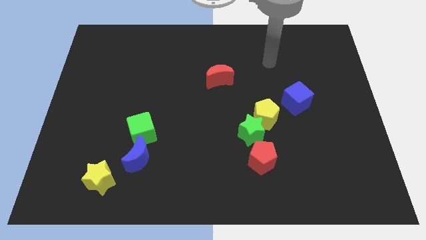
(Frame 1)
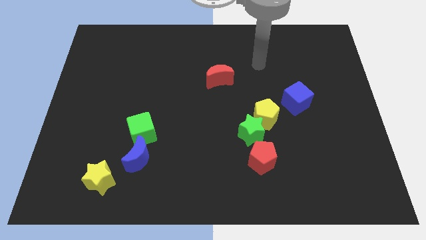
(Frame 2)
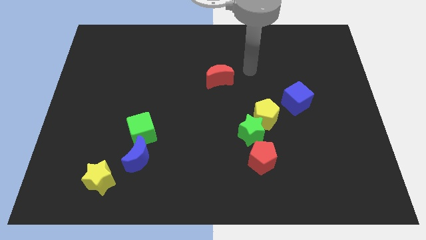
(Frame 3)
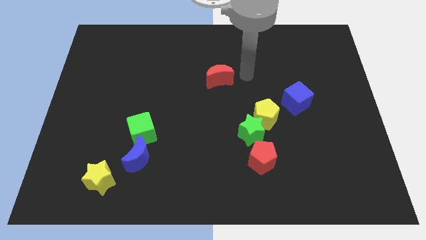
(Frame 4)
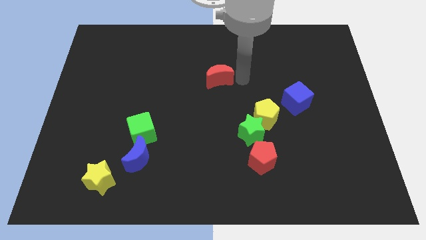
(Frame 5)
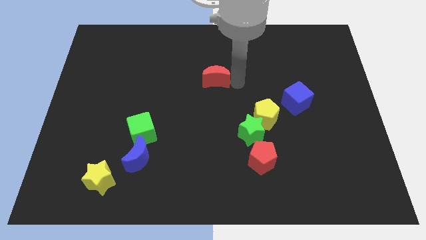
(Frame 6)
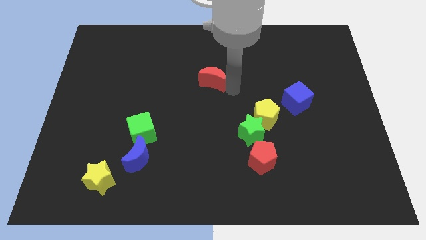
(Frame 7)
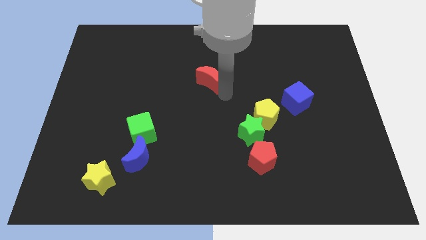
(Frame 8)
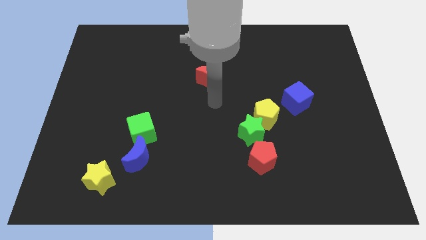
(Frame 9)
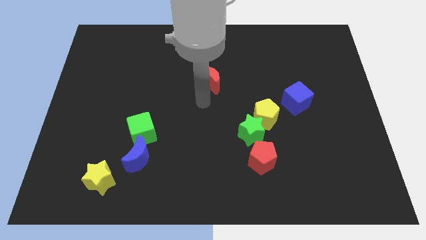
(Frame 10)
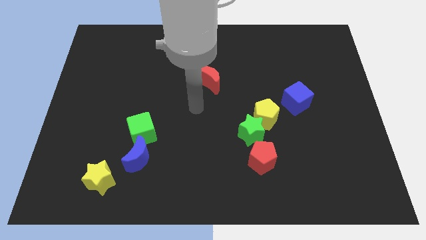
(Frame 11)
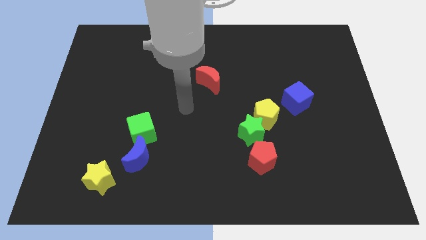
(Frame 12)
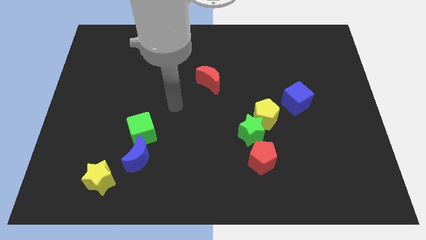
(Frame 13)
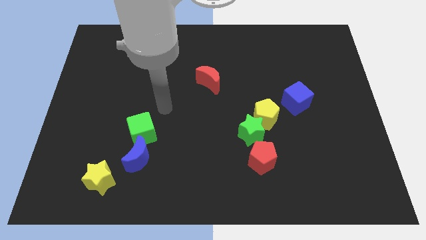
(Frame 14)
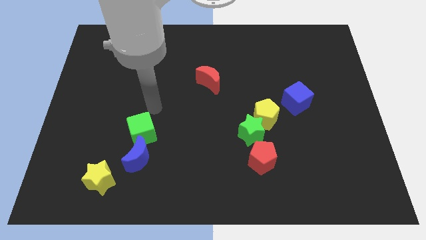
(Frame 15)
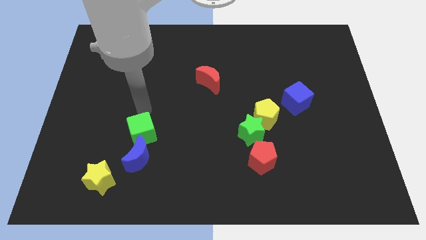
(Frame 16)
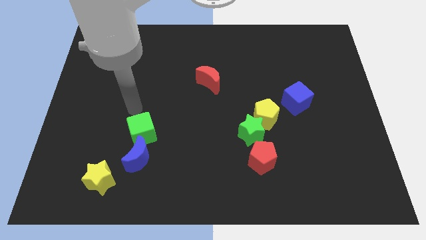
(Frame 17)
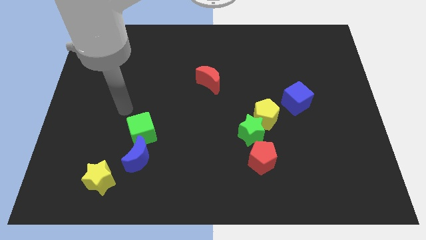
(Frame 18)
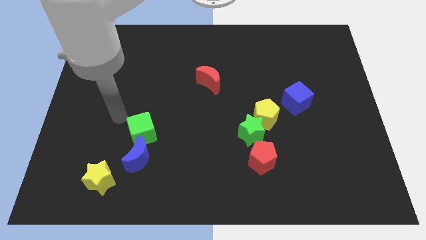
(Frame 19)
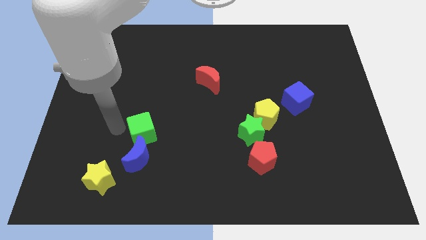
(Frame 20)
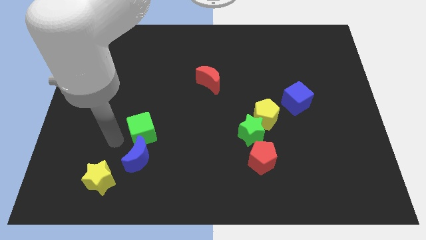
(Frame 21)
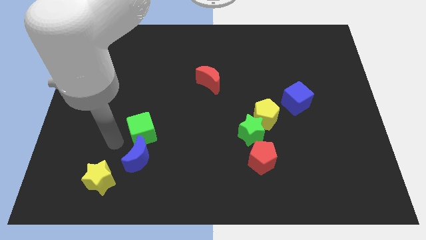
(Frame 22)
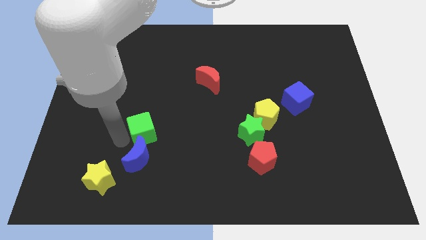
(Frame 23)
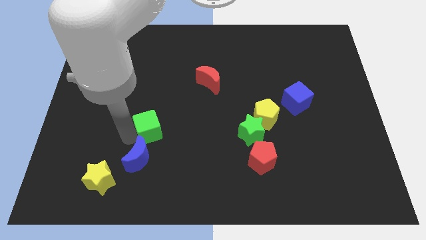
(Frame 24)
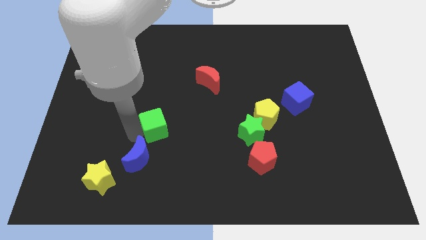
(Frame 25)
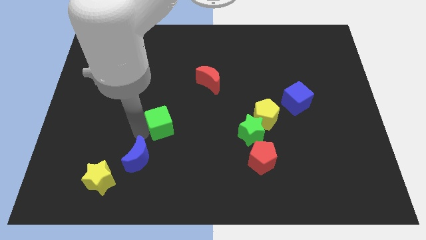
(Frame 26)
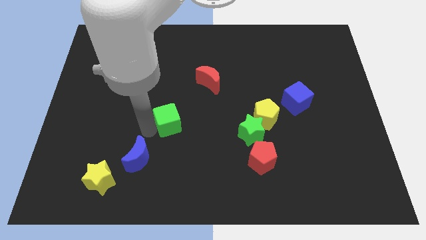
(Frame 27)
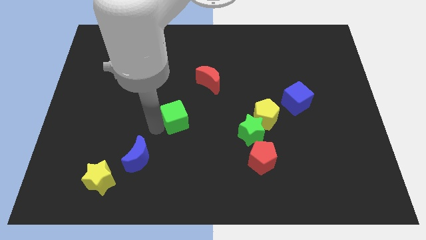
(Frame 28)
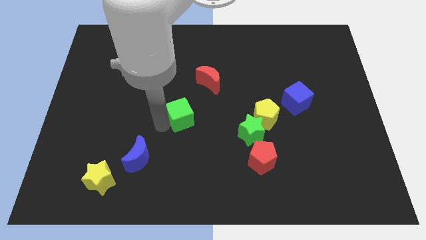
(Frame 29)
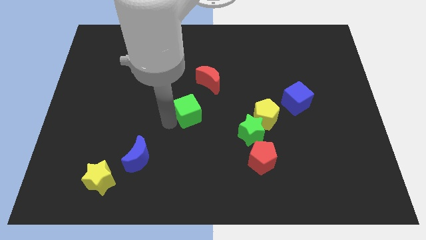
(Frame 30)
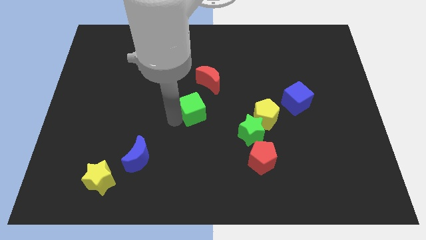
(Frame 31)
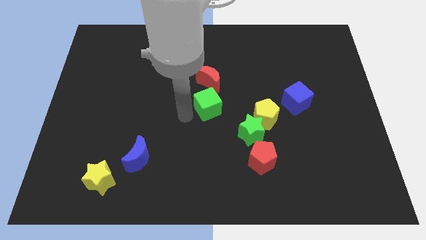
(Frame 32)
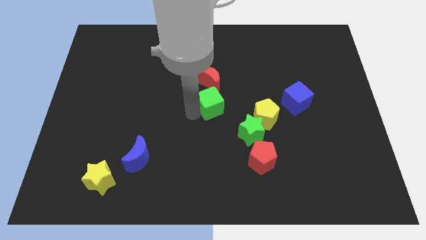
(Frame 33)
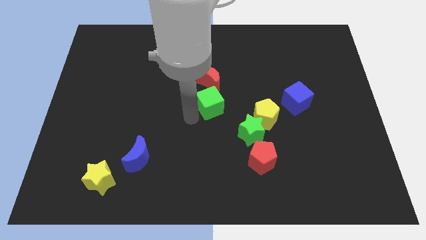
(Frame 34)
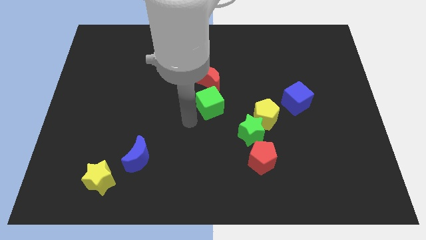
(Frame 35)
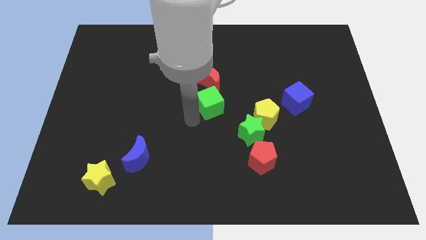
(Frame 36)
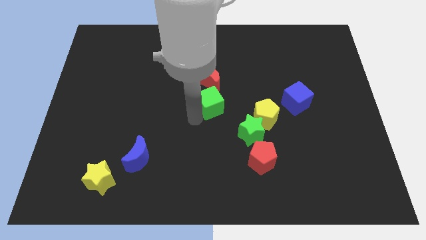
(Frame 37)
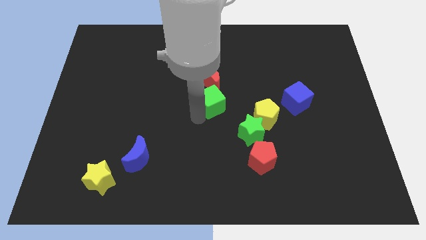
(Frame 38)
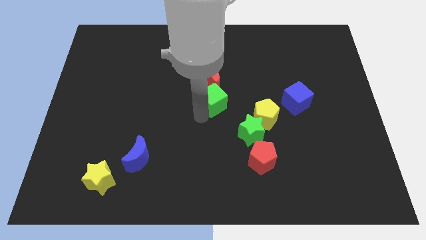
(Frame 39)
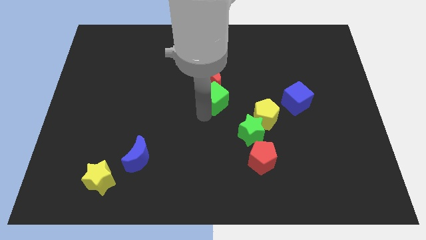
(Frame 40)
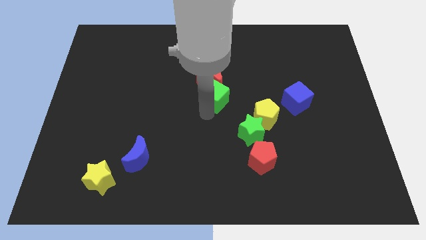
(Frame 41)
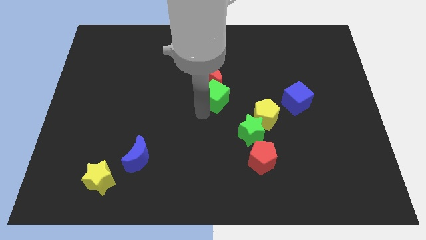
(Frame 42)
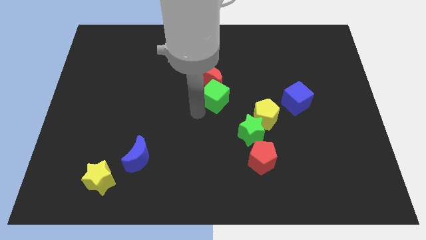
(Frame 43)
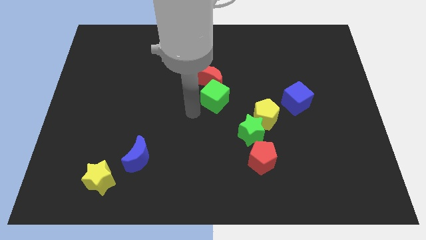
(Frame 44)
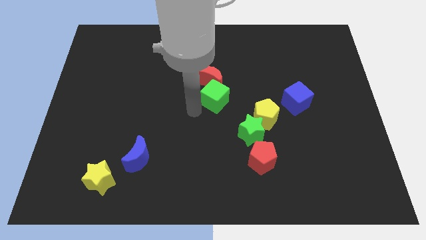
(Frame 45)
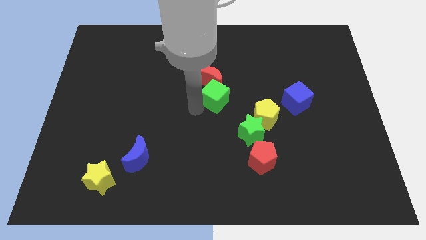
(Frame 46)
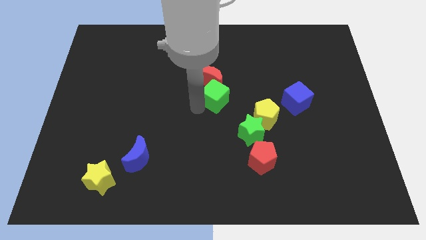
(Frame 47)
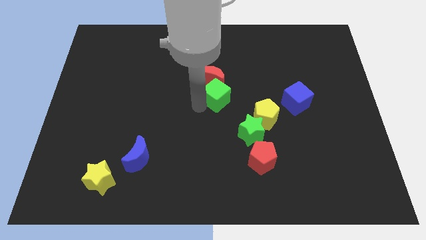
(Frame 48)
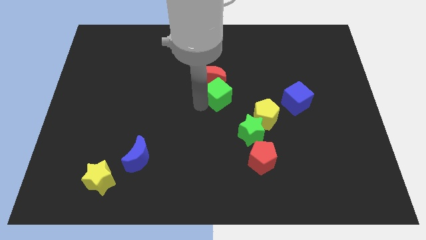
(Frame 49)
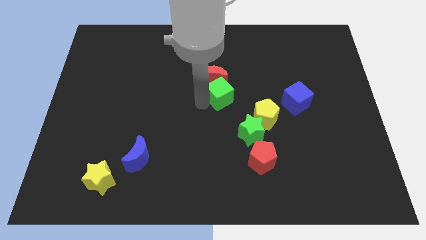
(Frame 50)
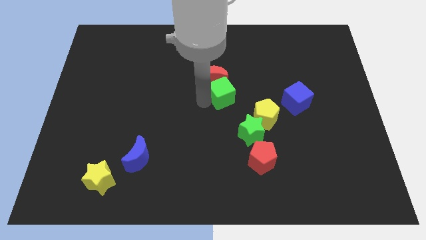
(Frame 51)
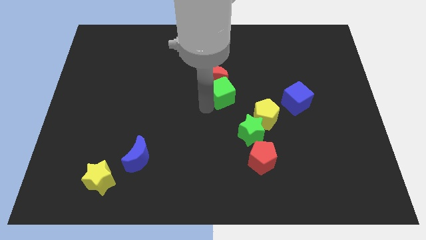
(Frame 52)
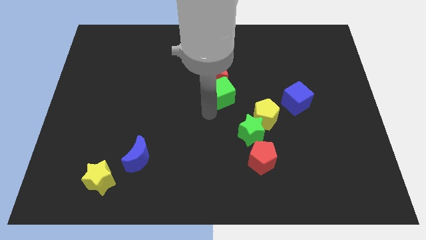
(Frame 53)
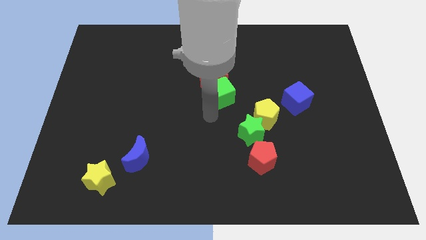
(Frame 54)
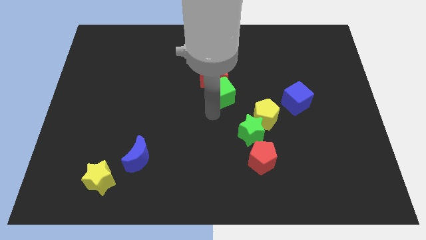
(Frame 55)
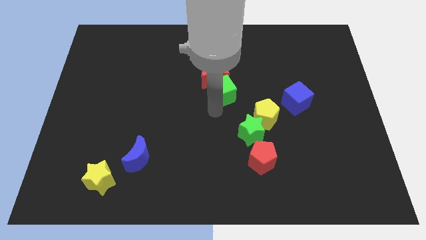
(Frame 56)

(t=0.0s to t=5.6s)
slide the green cube up and to the right

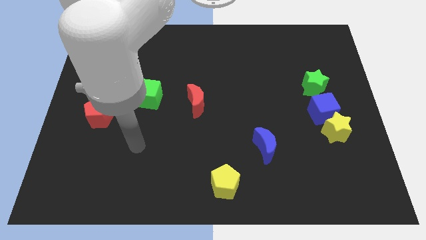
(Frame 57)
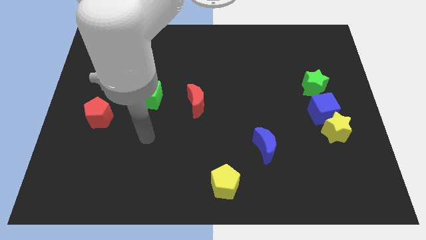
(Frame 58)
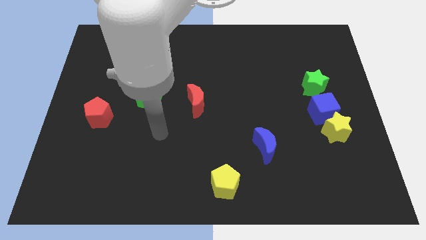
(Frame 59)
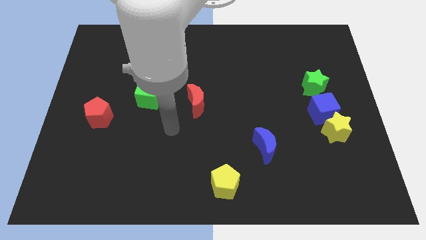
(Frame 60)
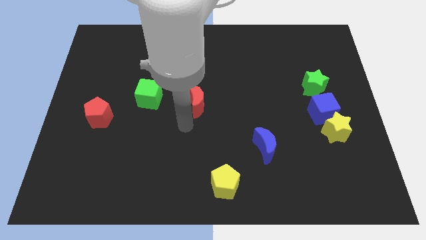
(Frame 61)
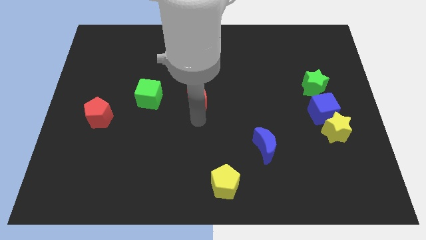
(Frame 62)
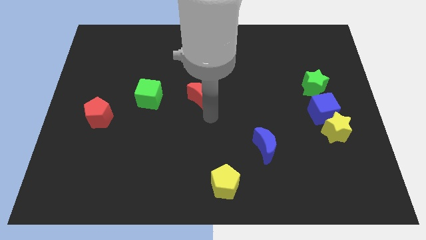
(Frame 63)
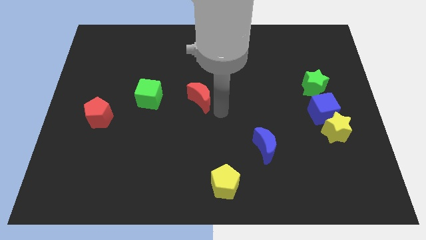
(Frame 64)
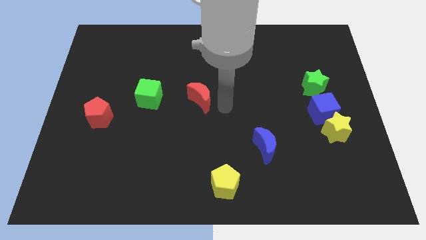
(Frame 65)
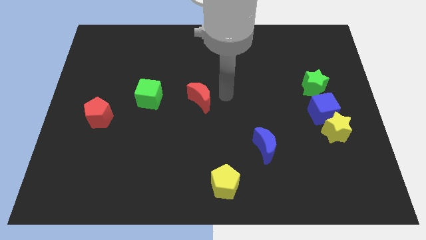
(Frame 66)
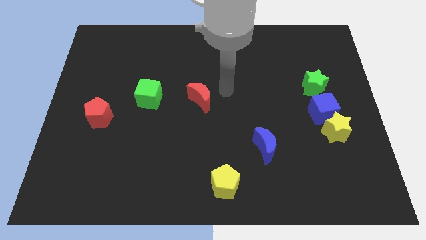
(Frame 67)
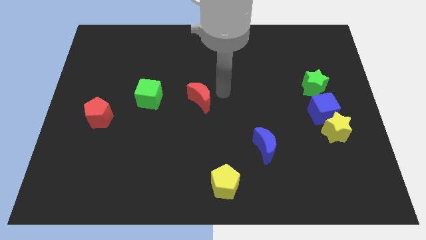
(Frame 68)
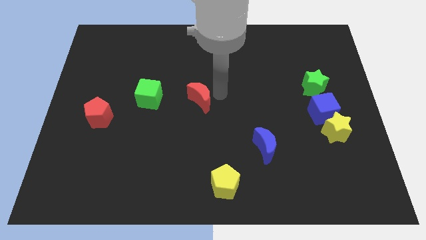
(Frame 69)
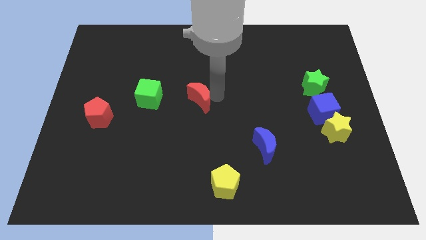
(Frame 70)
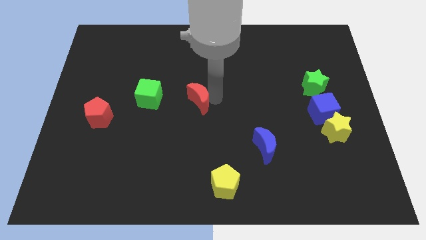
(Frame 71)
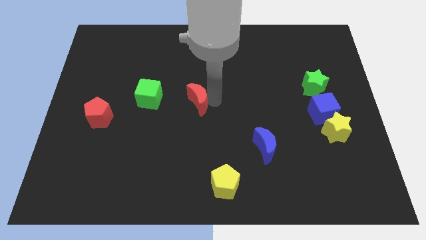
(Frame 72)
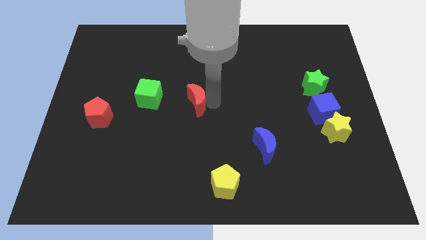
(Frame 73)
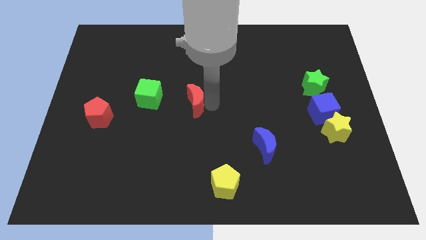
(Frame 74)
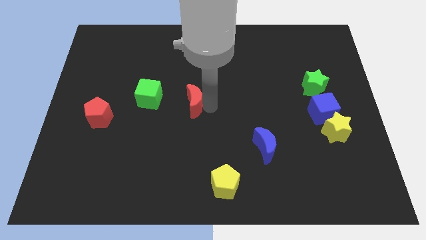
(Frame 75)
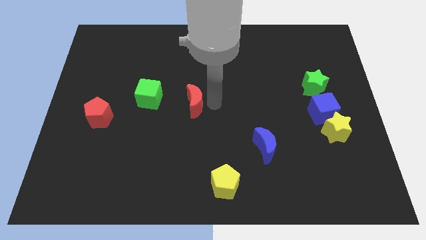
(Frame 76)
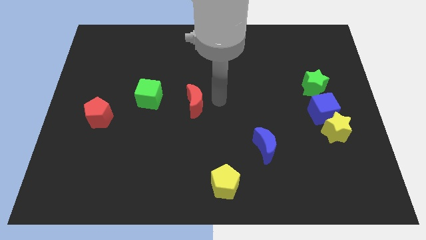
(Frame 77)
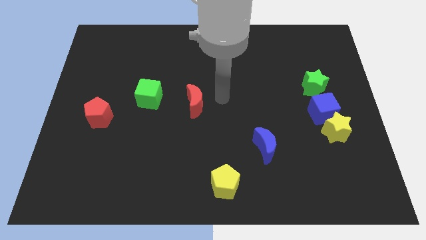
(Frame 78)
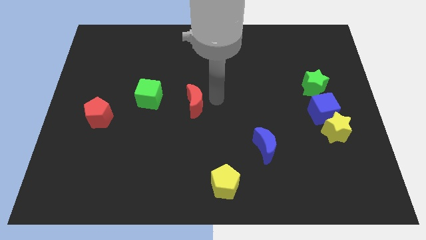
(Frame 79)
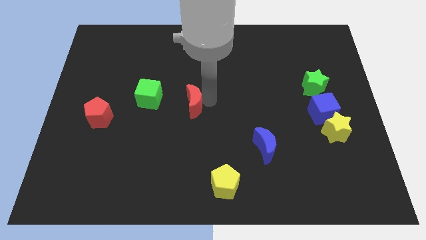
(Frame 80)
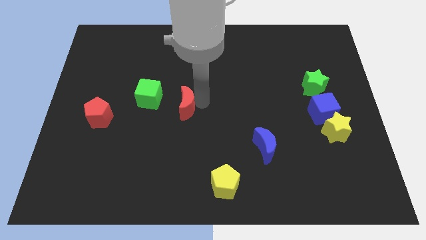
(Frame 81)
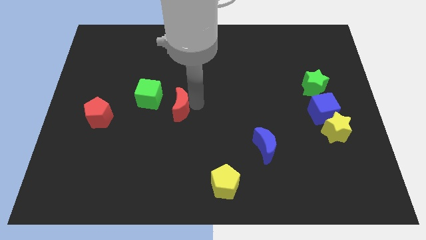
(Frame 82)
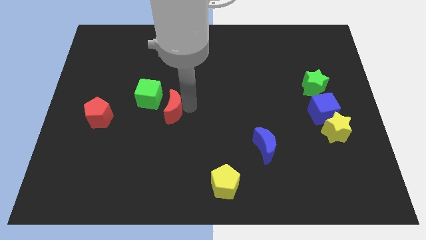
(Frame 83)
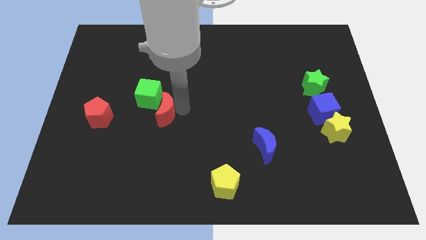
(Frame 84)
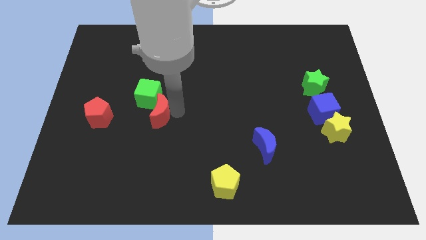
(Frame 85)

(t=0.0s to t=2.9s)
slightly slide the red moon to the left
